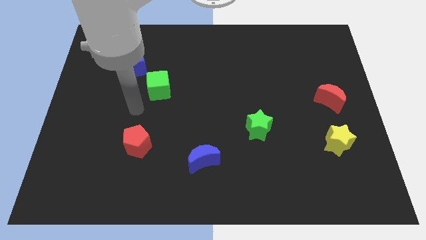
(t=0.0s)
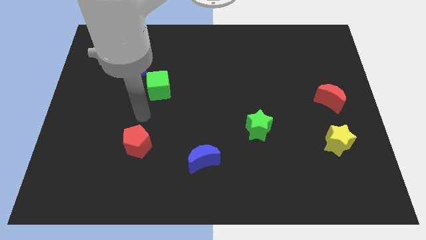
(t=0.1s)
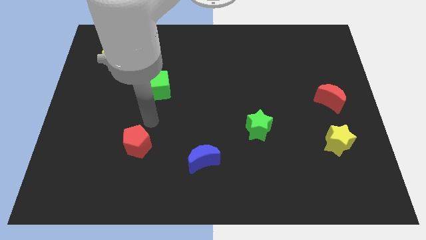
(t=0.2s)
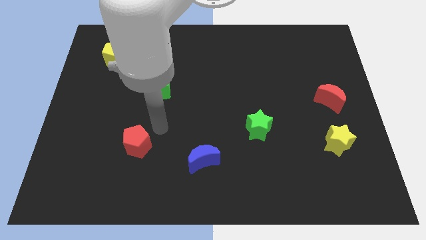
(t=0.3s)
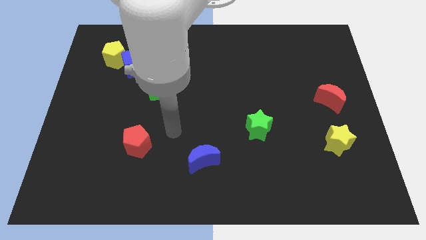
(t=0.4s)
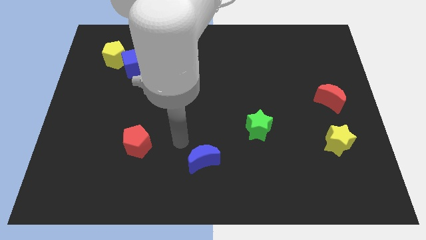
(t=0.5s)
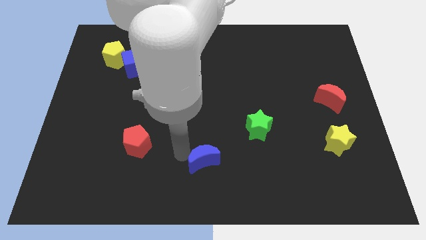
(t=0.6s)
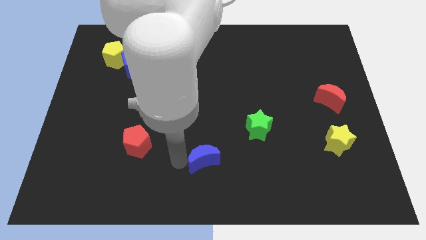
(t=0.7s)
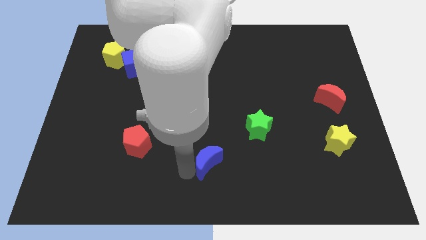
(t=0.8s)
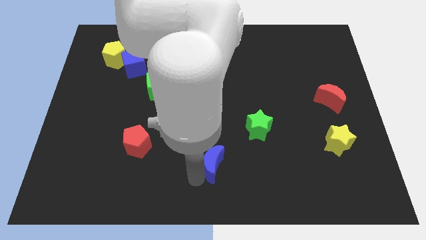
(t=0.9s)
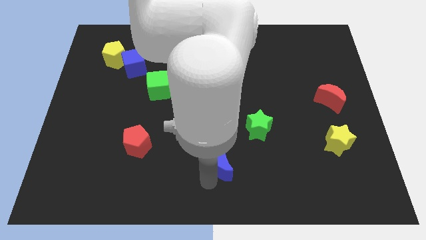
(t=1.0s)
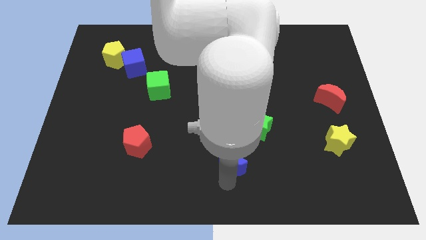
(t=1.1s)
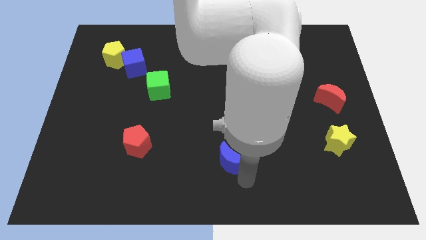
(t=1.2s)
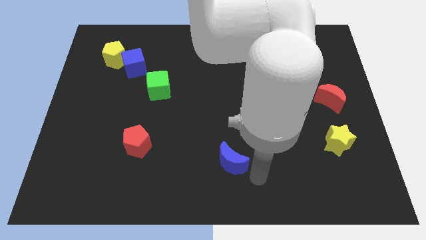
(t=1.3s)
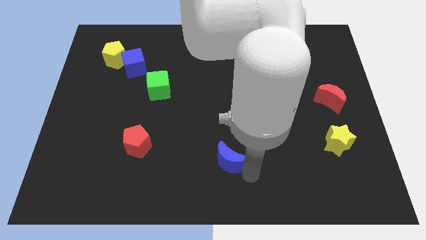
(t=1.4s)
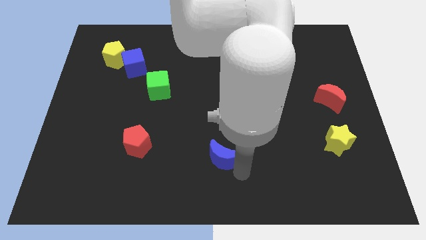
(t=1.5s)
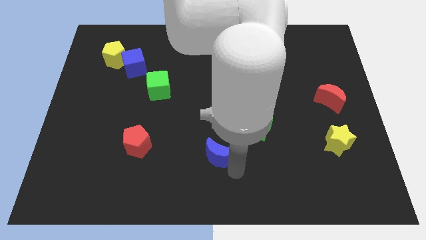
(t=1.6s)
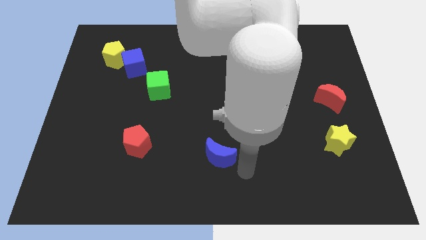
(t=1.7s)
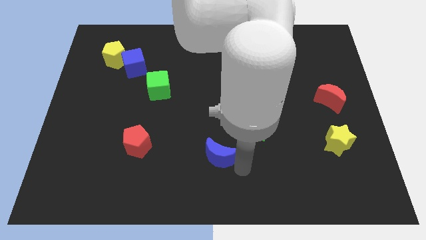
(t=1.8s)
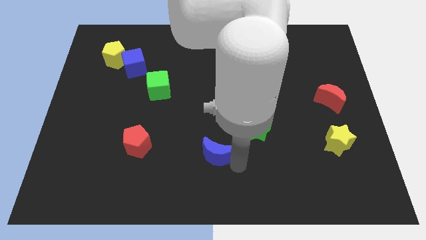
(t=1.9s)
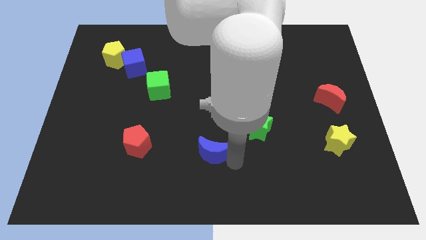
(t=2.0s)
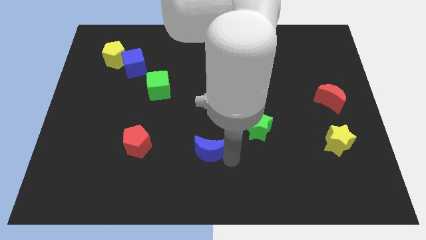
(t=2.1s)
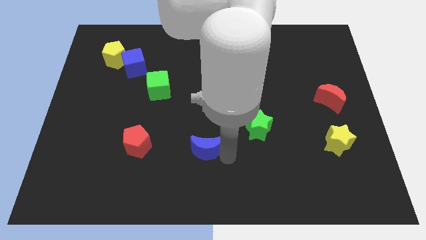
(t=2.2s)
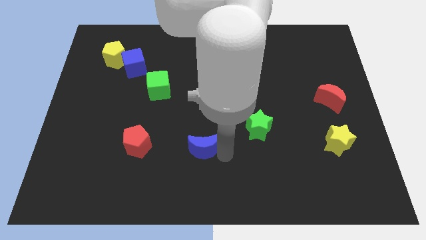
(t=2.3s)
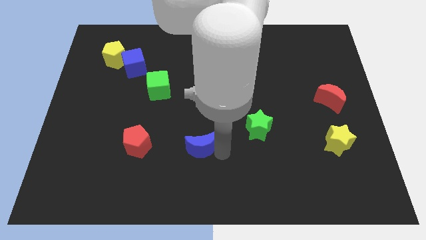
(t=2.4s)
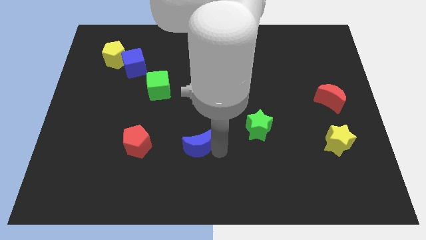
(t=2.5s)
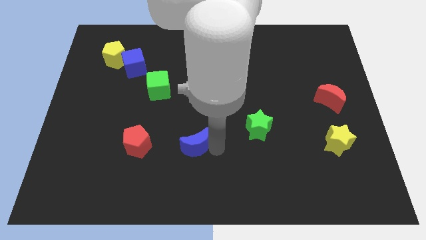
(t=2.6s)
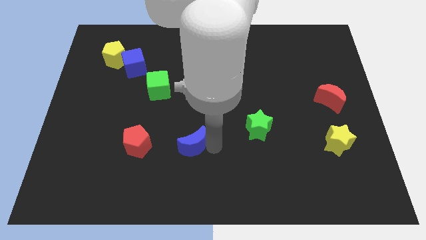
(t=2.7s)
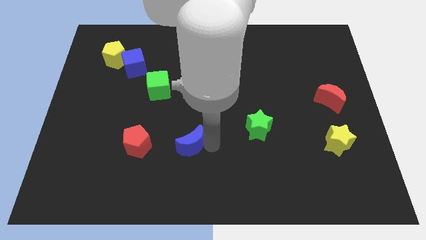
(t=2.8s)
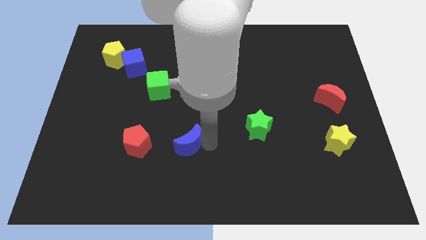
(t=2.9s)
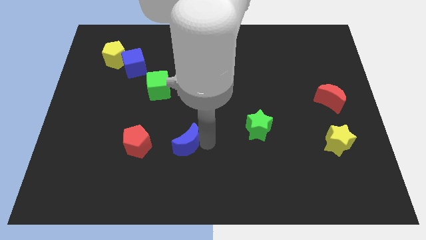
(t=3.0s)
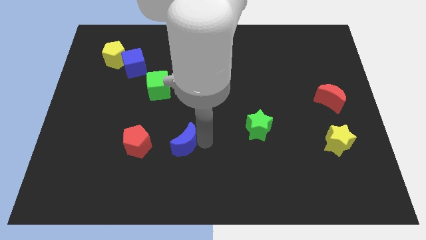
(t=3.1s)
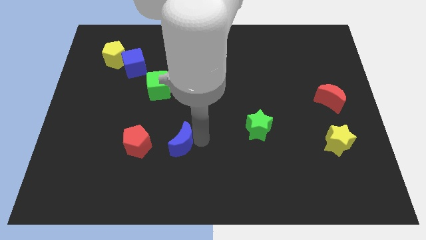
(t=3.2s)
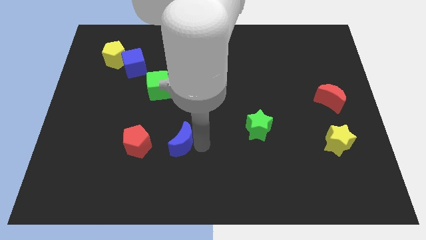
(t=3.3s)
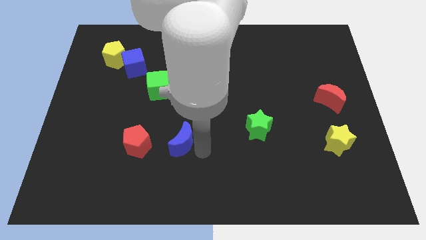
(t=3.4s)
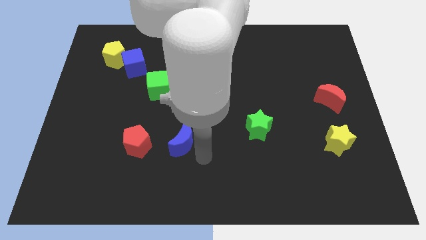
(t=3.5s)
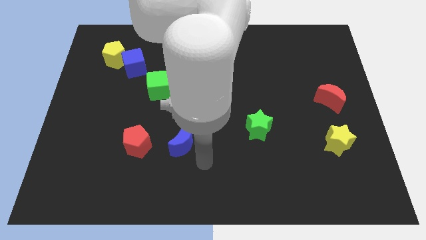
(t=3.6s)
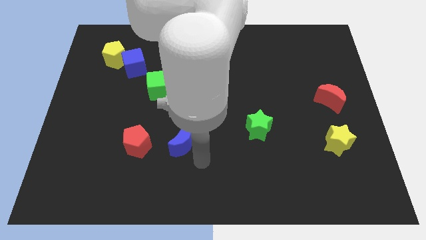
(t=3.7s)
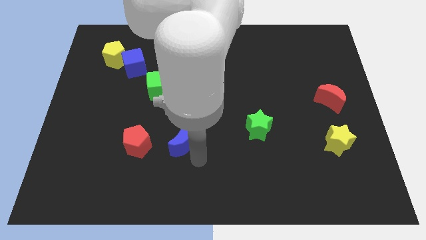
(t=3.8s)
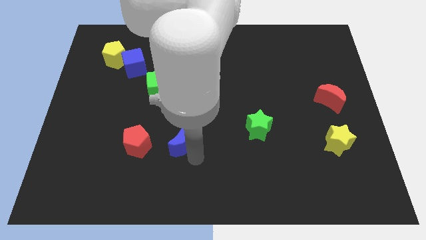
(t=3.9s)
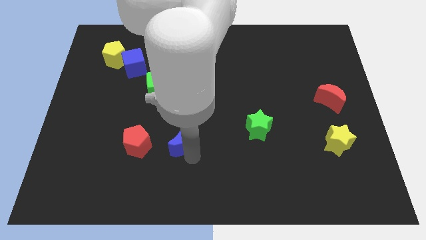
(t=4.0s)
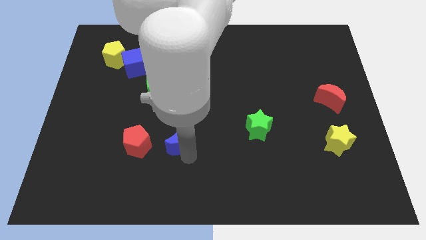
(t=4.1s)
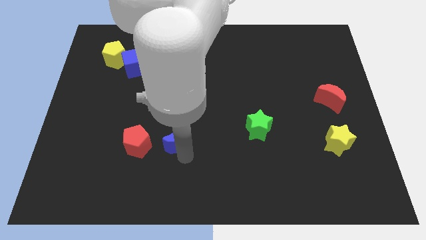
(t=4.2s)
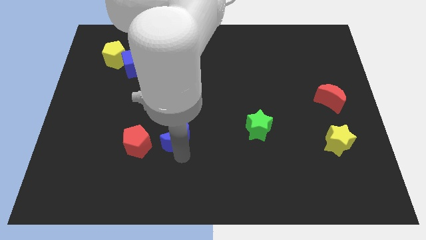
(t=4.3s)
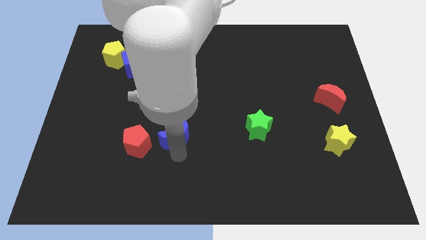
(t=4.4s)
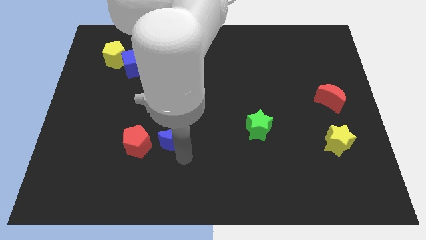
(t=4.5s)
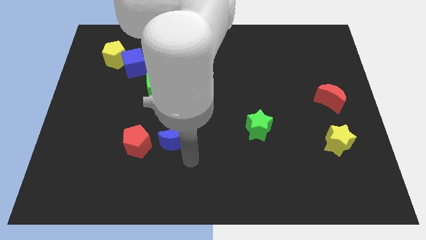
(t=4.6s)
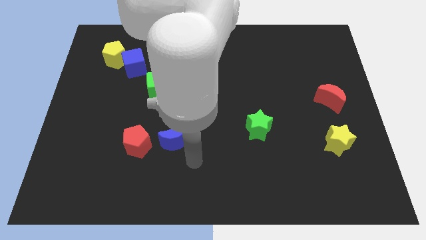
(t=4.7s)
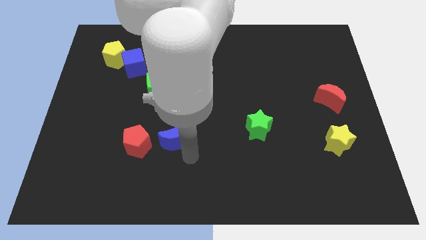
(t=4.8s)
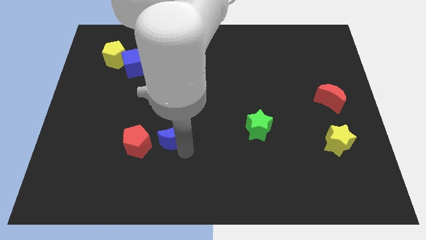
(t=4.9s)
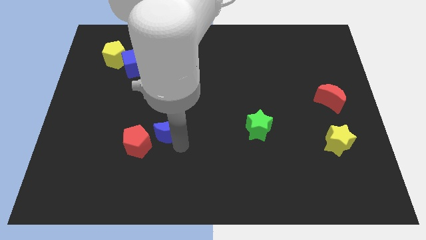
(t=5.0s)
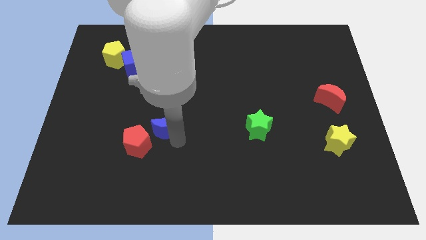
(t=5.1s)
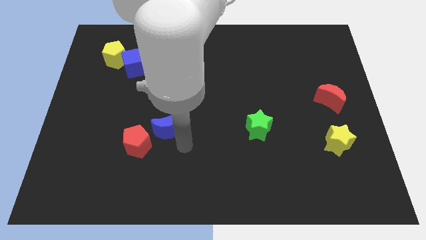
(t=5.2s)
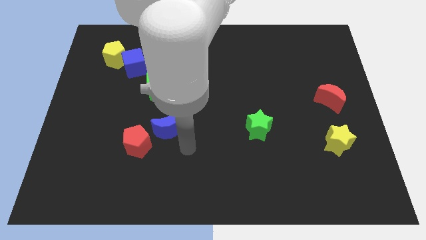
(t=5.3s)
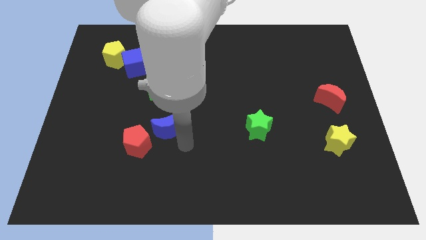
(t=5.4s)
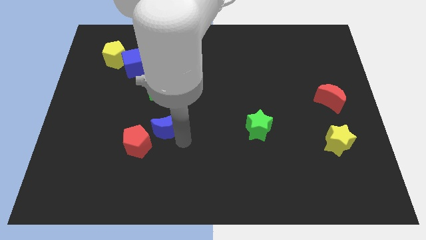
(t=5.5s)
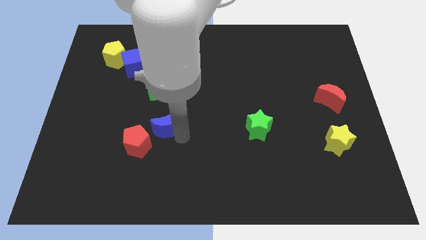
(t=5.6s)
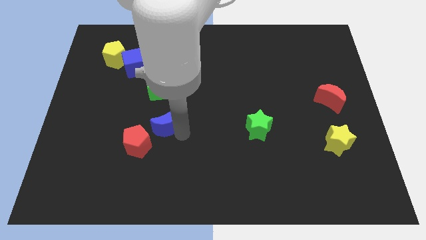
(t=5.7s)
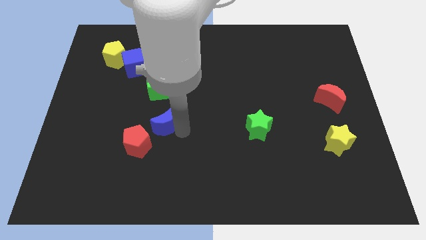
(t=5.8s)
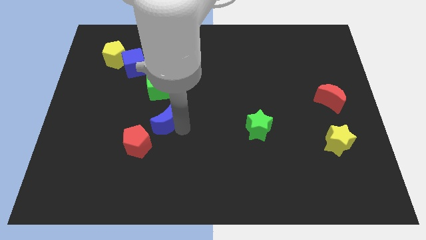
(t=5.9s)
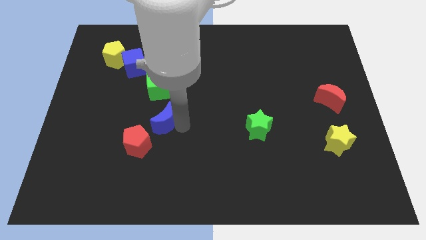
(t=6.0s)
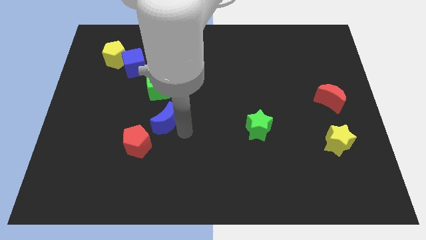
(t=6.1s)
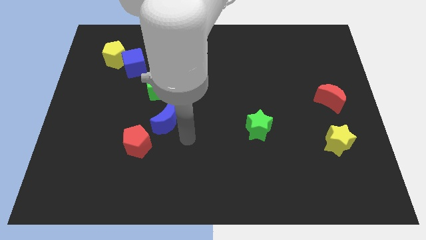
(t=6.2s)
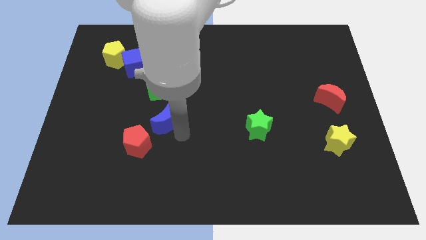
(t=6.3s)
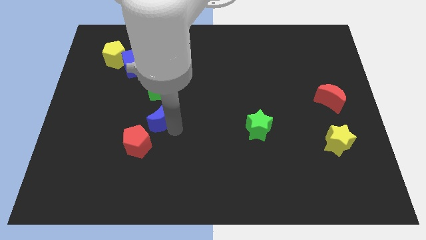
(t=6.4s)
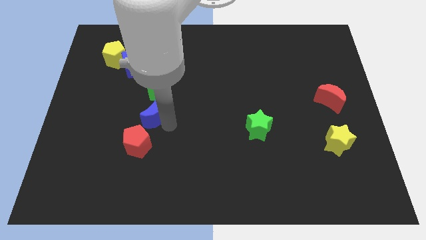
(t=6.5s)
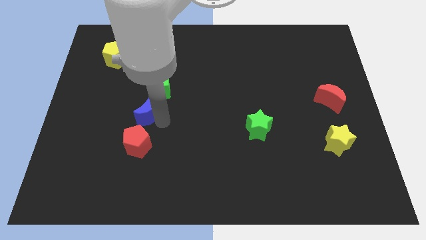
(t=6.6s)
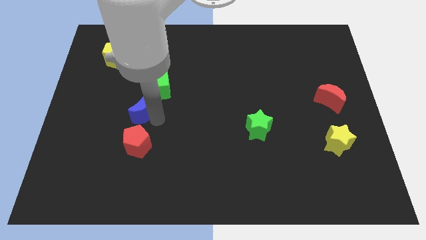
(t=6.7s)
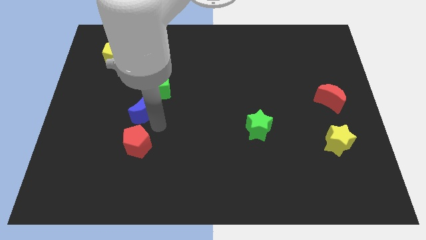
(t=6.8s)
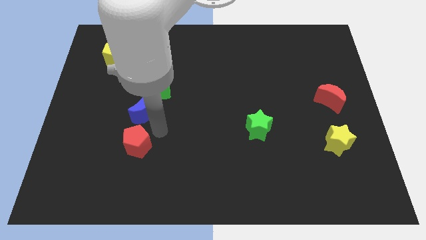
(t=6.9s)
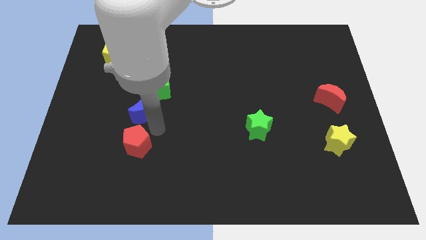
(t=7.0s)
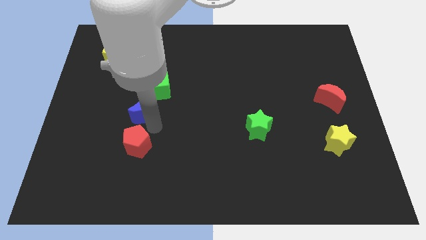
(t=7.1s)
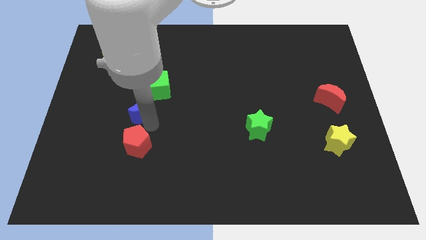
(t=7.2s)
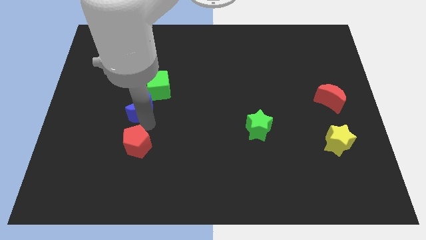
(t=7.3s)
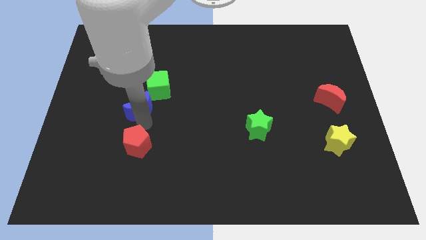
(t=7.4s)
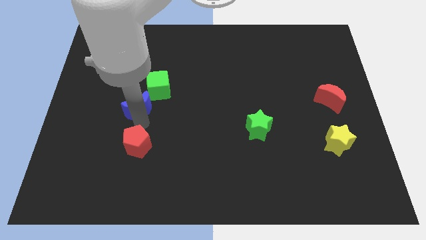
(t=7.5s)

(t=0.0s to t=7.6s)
slide the blue moon diagonally upwards and to the left

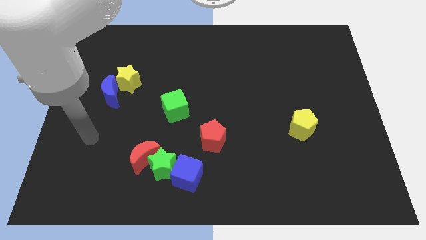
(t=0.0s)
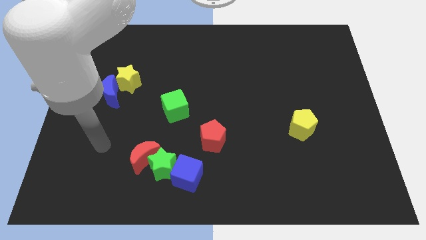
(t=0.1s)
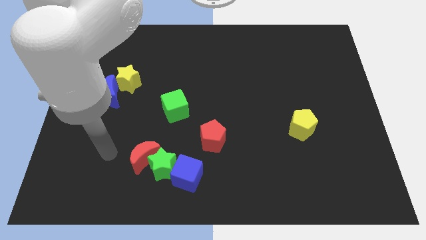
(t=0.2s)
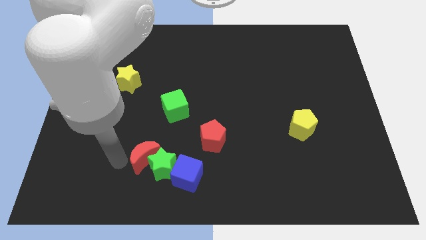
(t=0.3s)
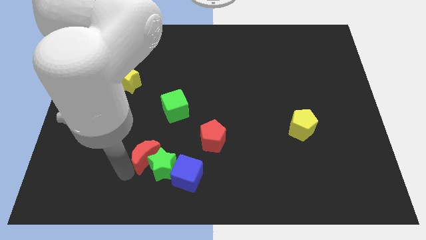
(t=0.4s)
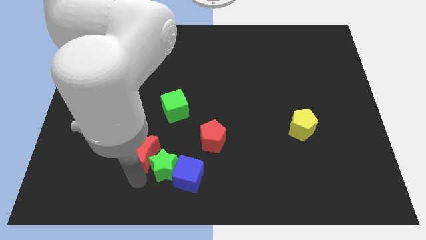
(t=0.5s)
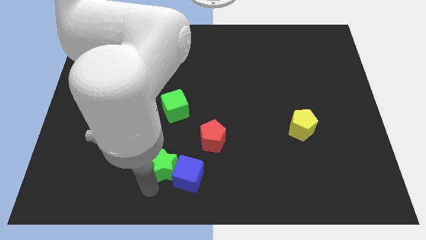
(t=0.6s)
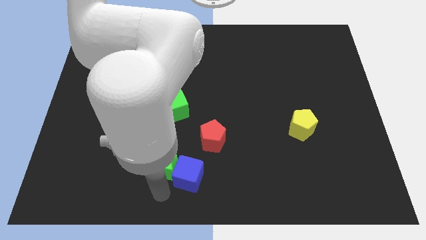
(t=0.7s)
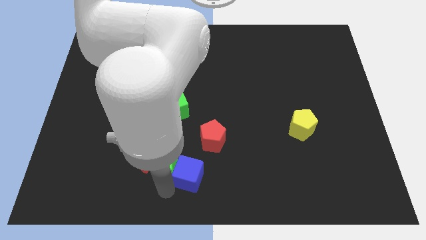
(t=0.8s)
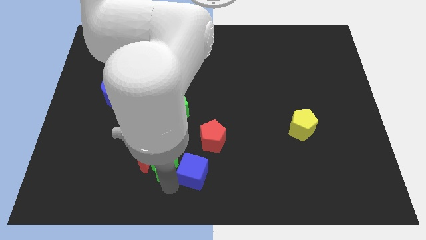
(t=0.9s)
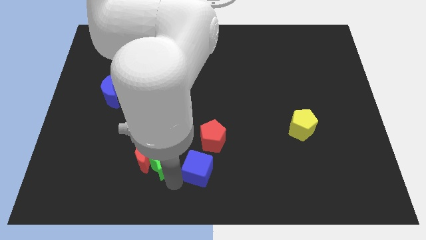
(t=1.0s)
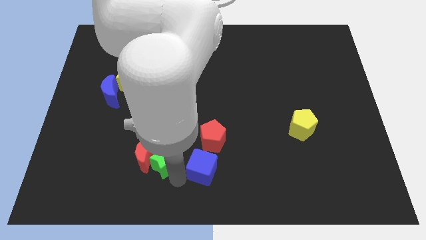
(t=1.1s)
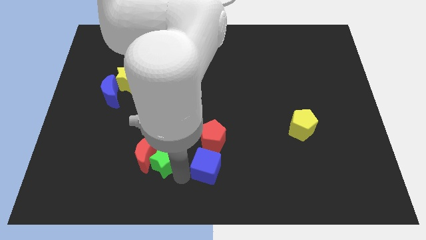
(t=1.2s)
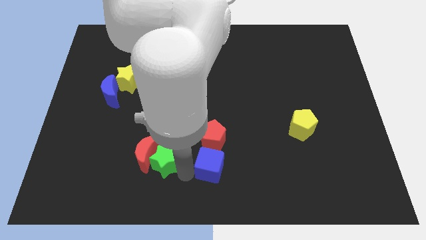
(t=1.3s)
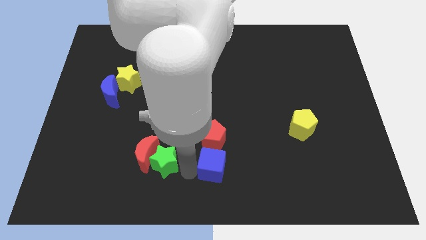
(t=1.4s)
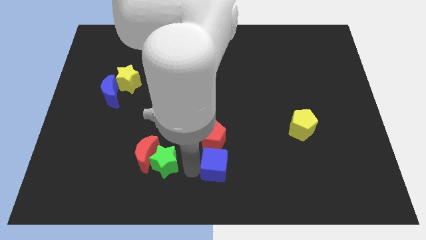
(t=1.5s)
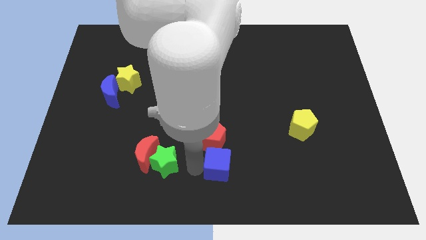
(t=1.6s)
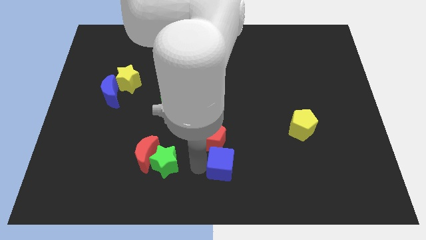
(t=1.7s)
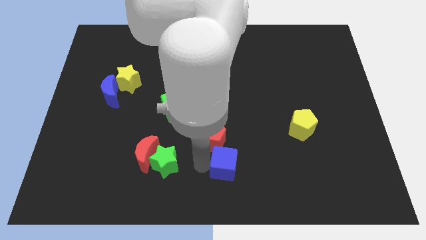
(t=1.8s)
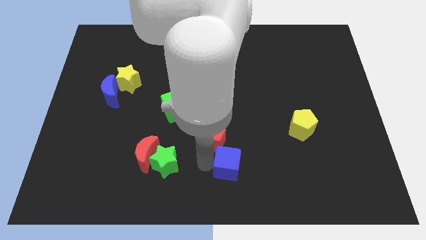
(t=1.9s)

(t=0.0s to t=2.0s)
move the blue cube slightly upwards and then right
